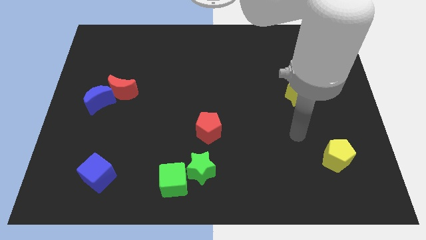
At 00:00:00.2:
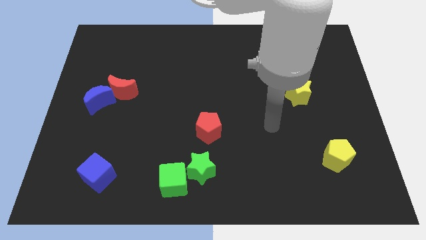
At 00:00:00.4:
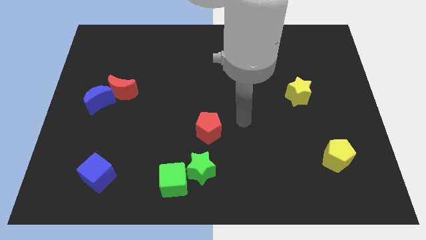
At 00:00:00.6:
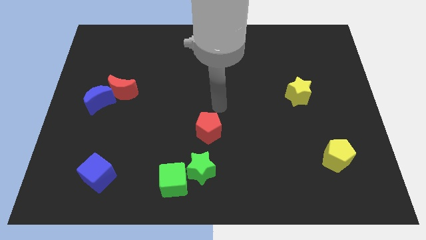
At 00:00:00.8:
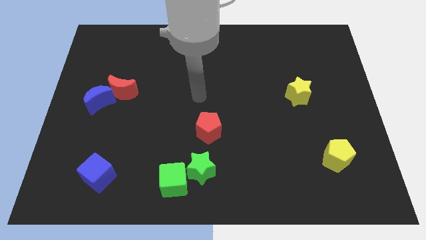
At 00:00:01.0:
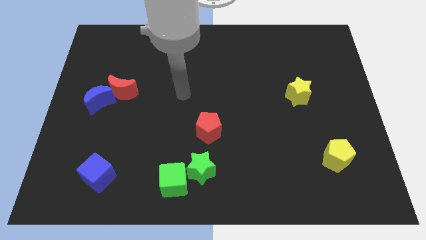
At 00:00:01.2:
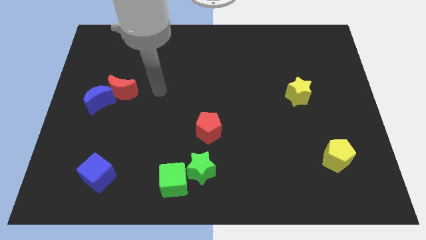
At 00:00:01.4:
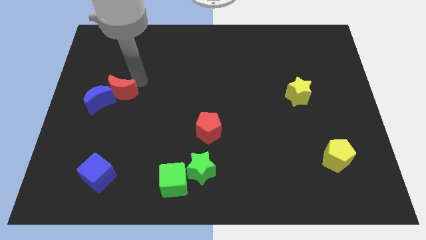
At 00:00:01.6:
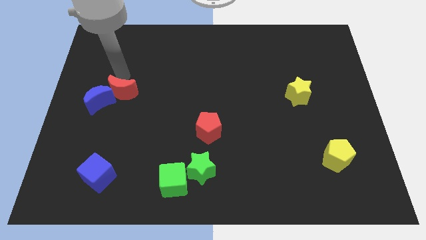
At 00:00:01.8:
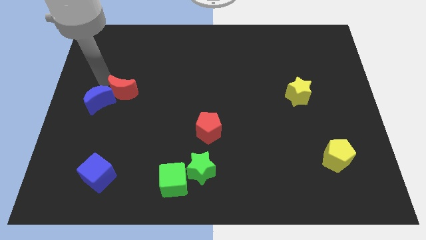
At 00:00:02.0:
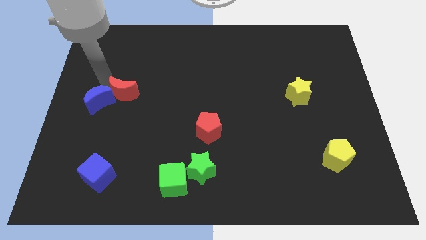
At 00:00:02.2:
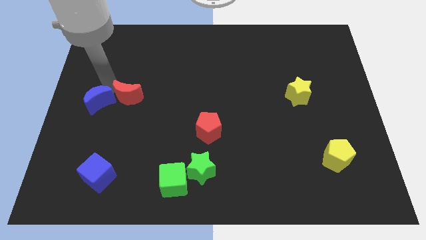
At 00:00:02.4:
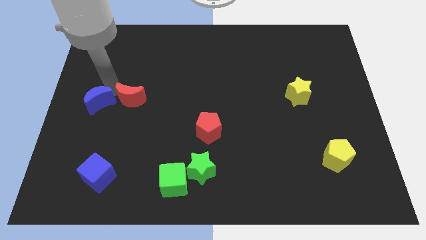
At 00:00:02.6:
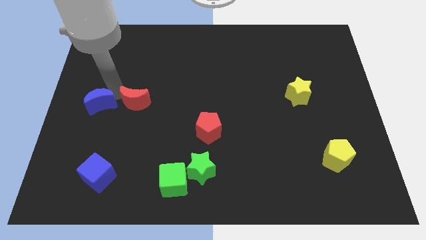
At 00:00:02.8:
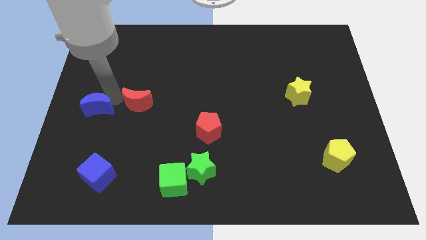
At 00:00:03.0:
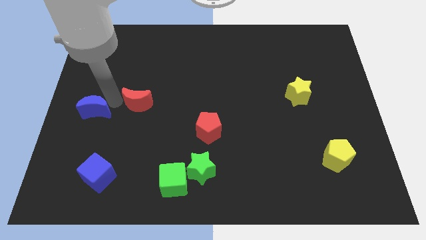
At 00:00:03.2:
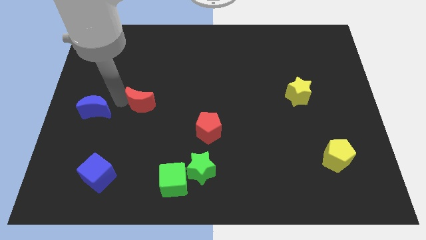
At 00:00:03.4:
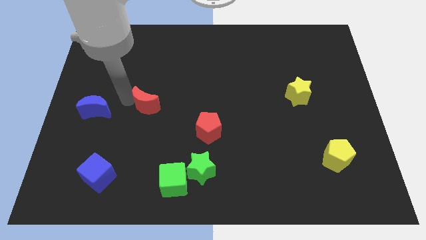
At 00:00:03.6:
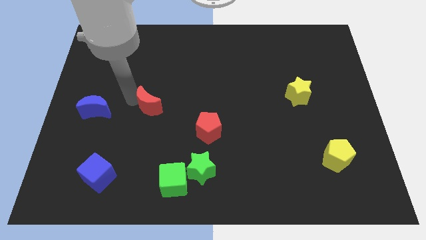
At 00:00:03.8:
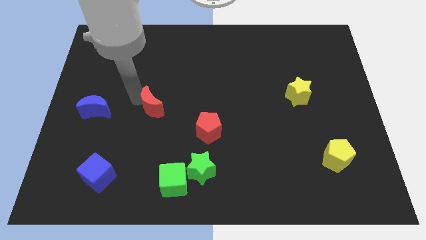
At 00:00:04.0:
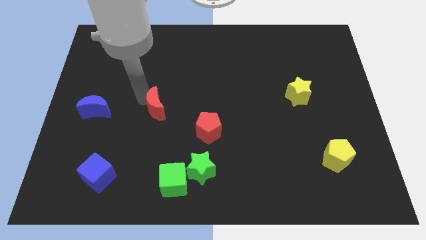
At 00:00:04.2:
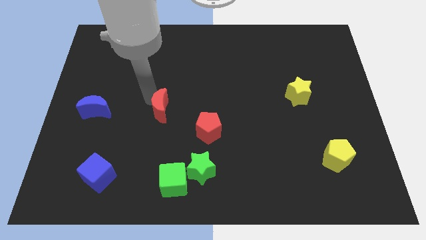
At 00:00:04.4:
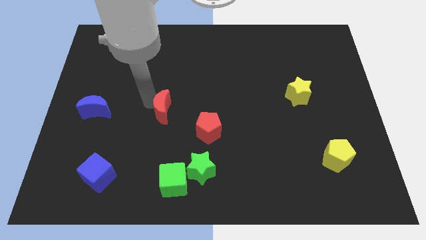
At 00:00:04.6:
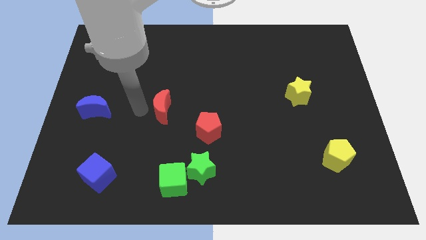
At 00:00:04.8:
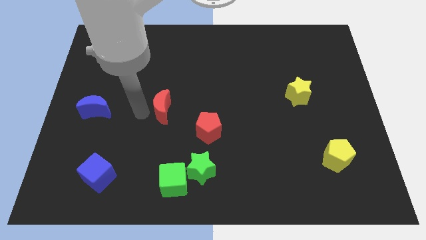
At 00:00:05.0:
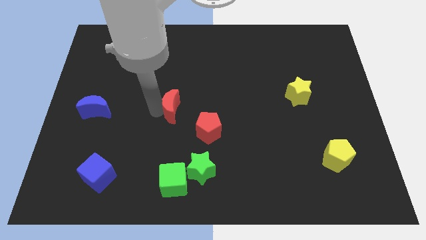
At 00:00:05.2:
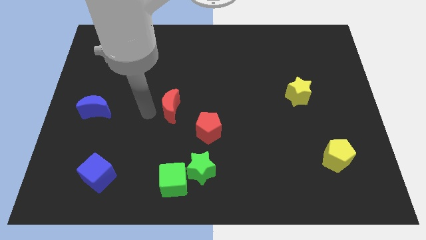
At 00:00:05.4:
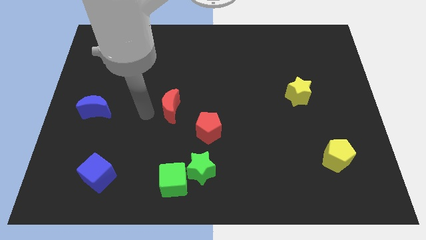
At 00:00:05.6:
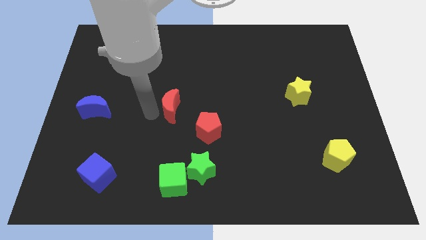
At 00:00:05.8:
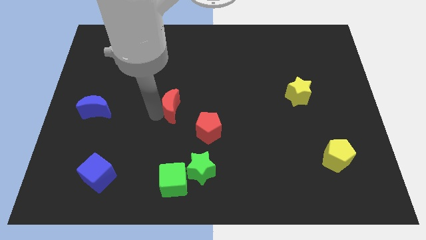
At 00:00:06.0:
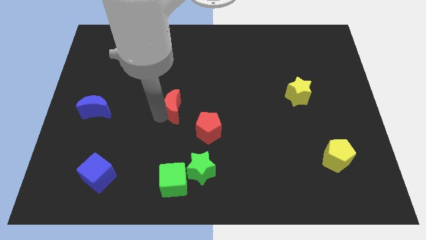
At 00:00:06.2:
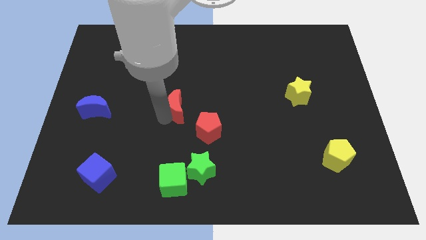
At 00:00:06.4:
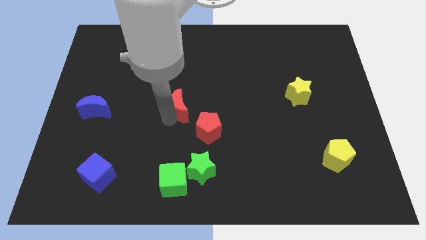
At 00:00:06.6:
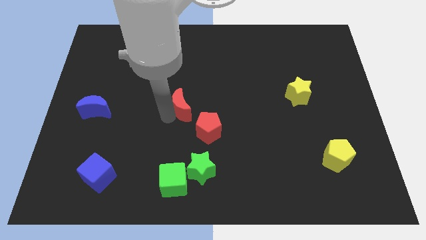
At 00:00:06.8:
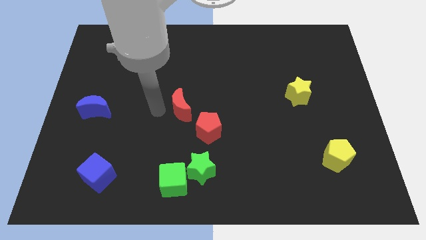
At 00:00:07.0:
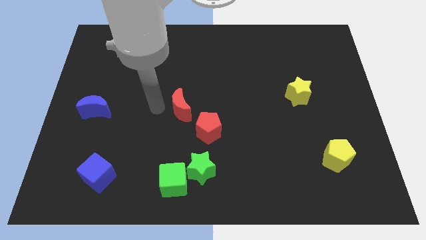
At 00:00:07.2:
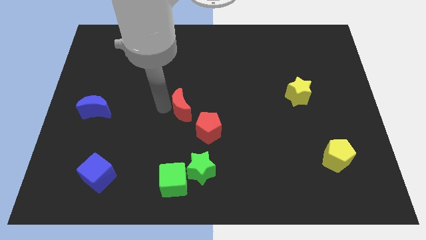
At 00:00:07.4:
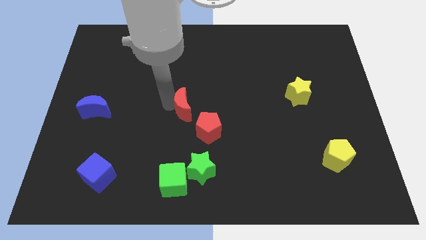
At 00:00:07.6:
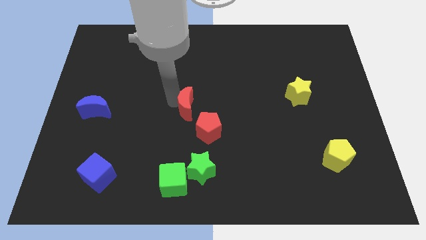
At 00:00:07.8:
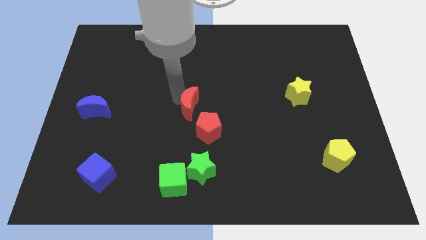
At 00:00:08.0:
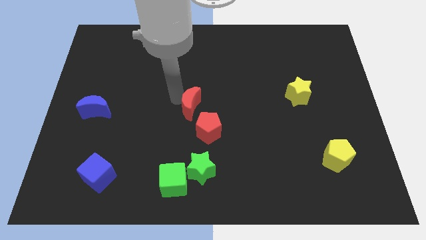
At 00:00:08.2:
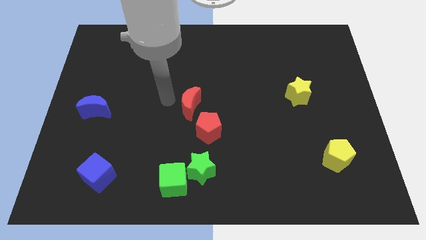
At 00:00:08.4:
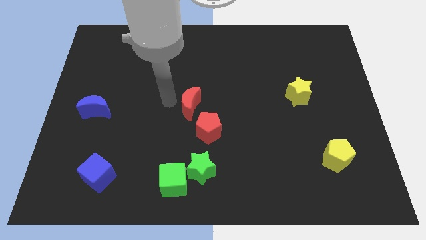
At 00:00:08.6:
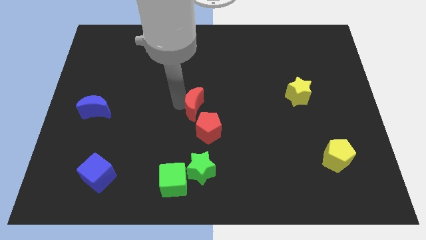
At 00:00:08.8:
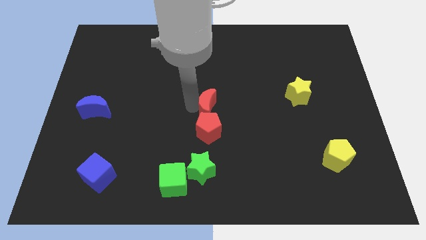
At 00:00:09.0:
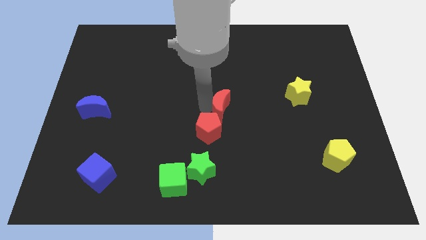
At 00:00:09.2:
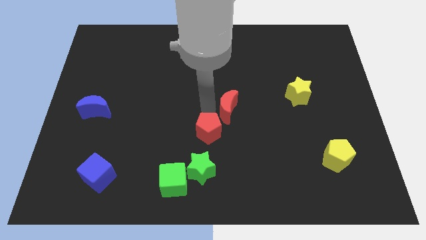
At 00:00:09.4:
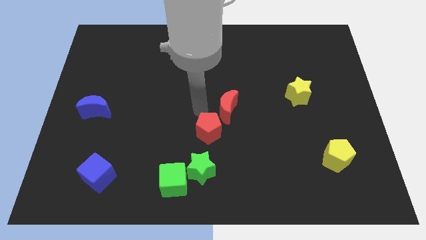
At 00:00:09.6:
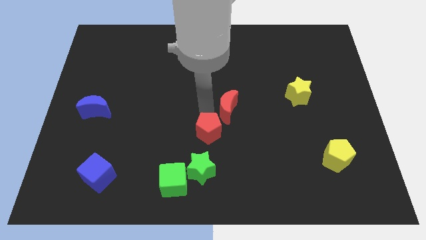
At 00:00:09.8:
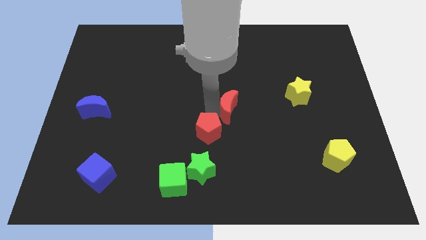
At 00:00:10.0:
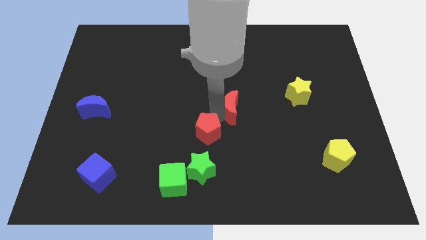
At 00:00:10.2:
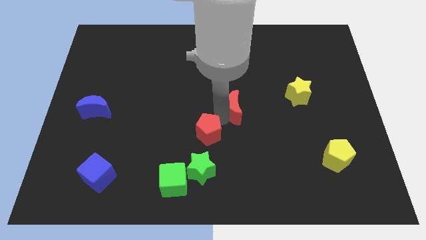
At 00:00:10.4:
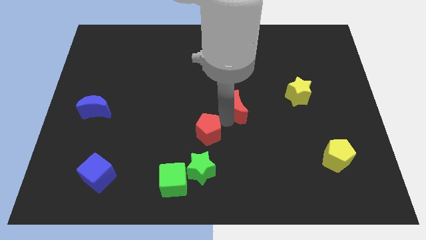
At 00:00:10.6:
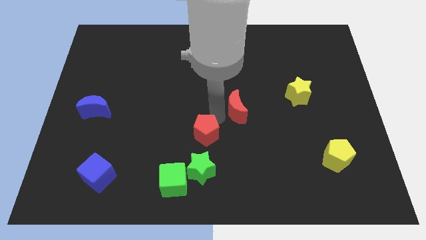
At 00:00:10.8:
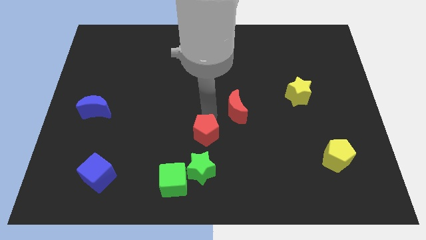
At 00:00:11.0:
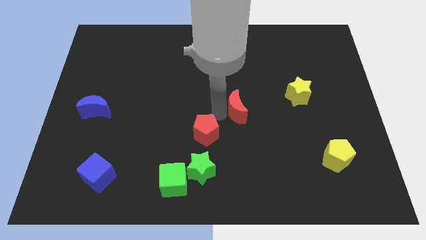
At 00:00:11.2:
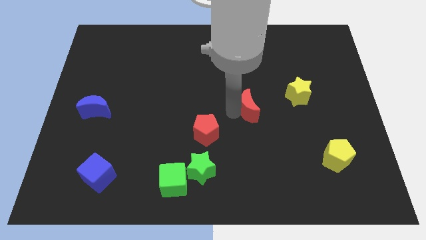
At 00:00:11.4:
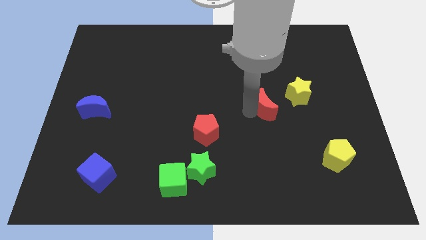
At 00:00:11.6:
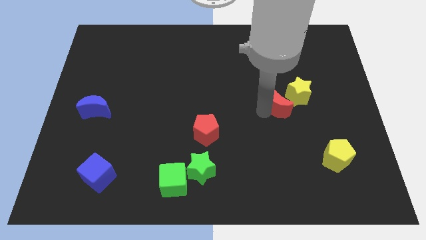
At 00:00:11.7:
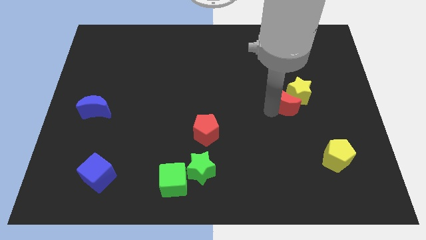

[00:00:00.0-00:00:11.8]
slide the red moon close to the yellow star
